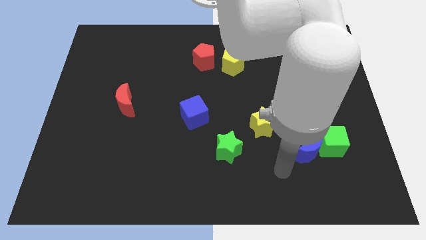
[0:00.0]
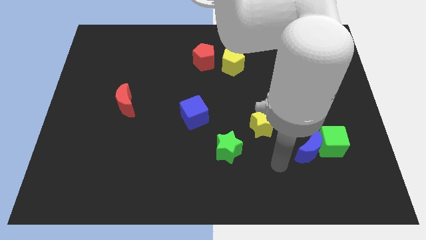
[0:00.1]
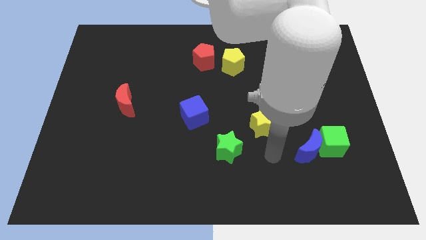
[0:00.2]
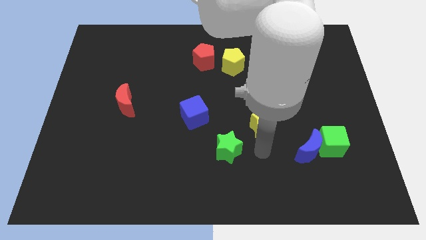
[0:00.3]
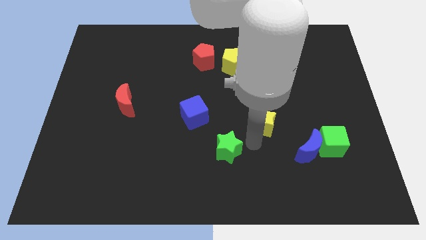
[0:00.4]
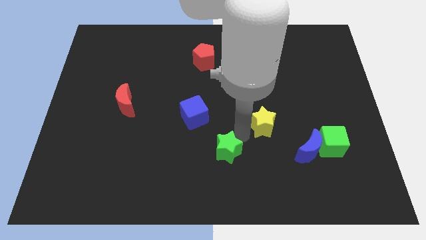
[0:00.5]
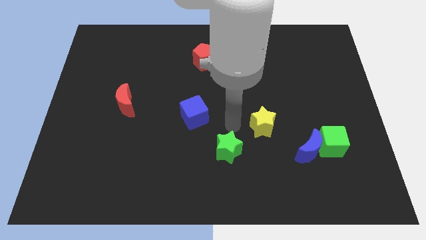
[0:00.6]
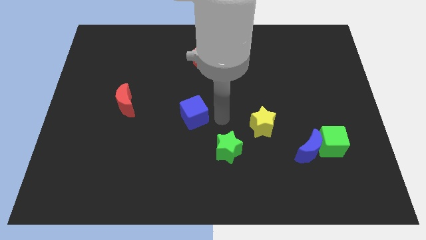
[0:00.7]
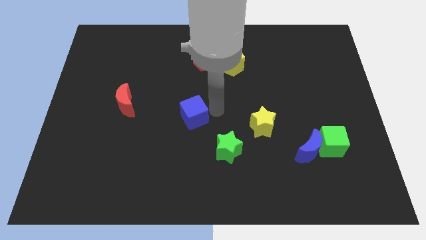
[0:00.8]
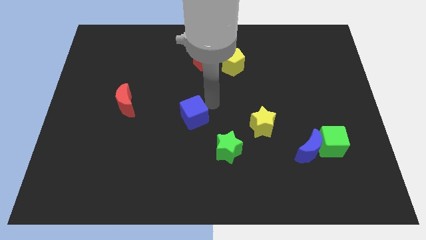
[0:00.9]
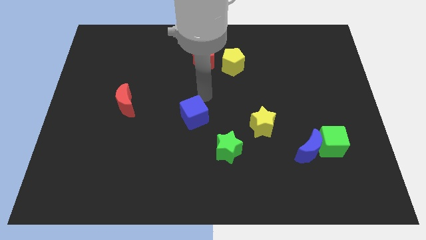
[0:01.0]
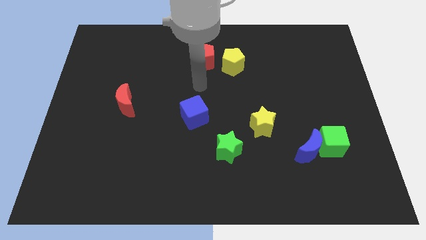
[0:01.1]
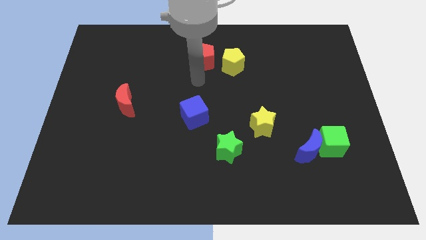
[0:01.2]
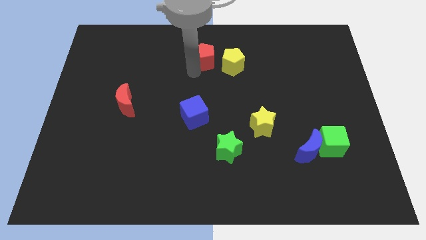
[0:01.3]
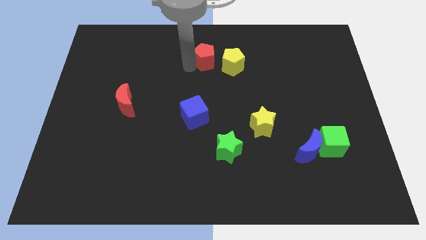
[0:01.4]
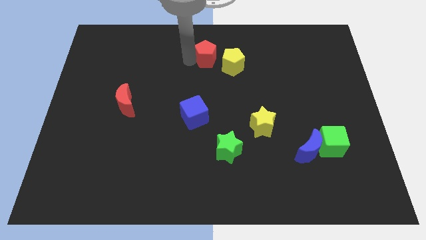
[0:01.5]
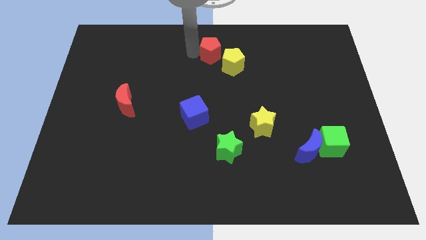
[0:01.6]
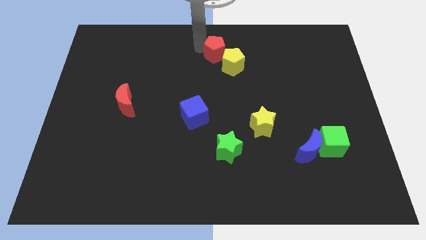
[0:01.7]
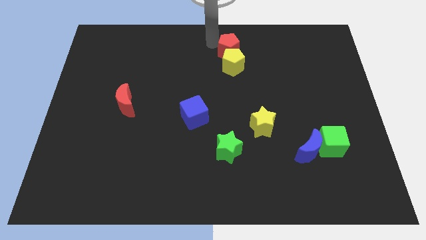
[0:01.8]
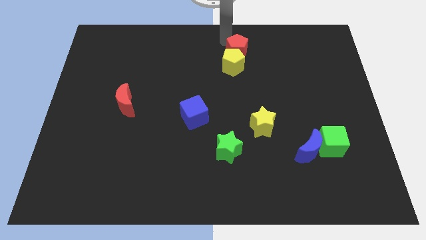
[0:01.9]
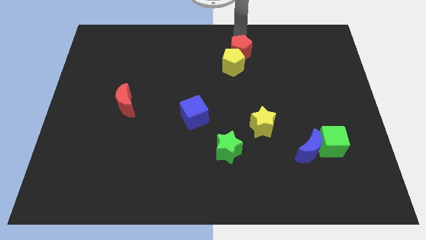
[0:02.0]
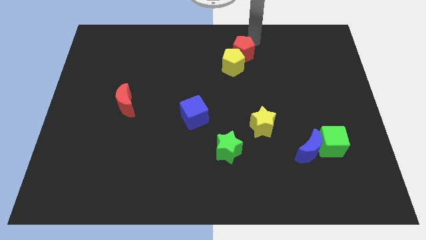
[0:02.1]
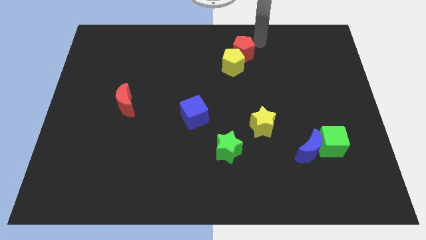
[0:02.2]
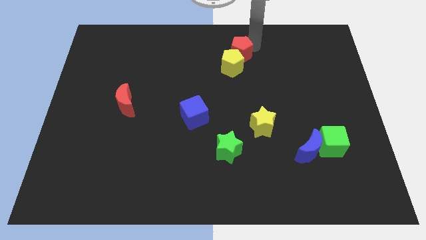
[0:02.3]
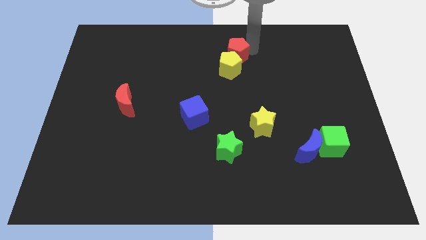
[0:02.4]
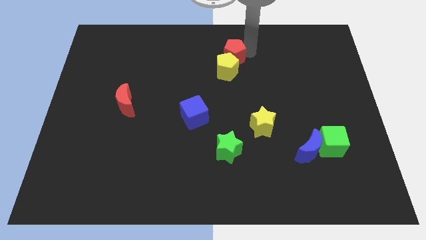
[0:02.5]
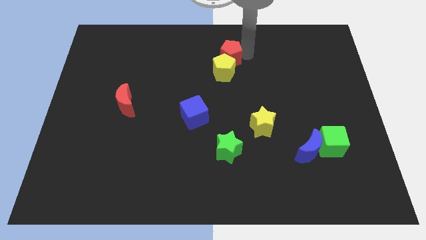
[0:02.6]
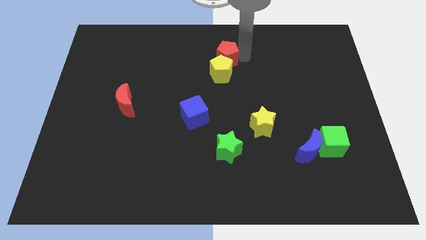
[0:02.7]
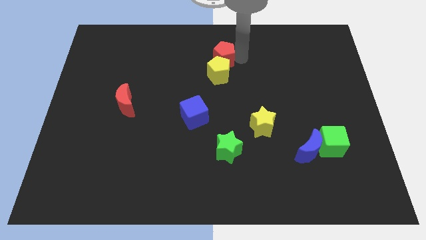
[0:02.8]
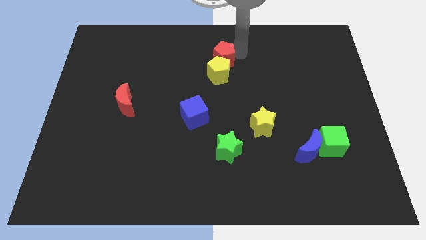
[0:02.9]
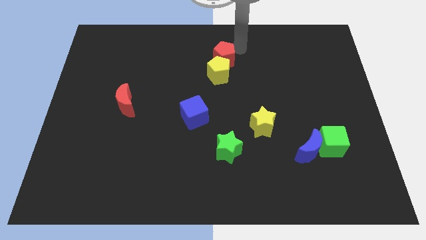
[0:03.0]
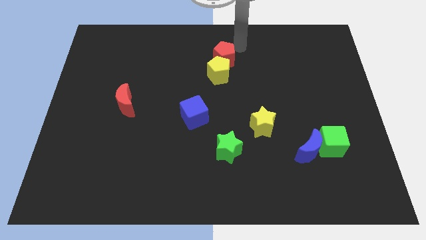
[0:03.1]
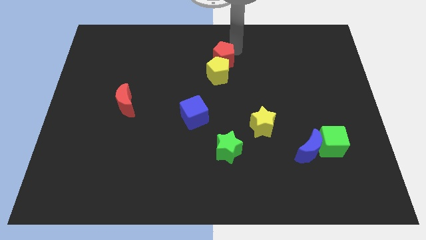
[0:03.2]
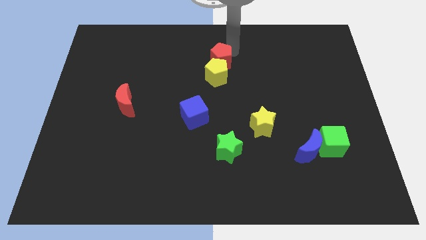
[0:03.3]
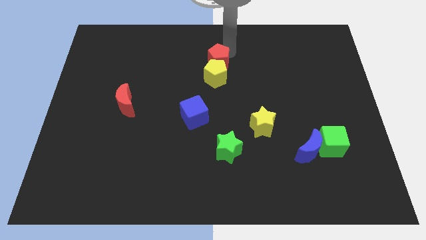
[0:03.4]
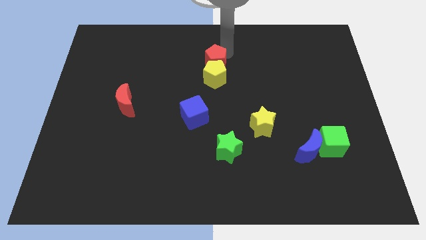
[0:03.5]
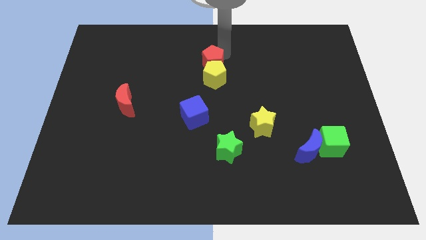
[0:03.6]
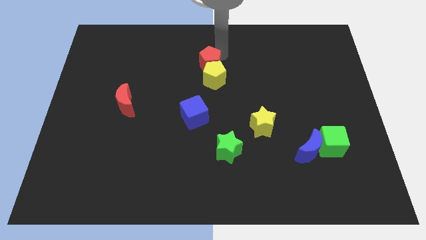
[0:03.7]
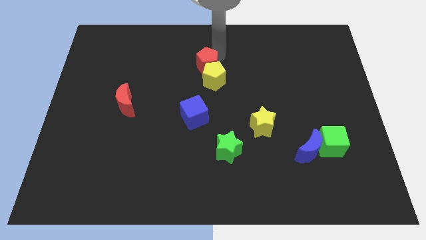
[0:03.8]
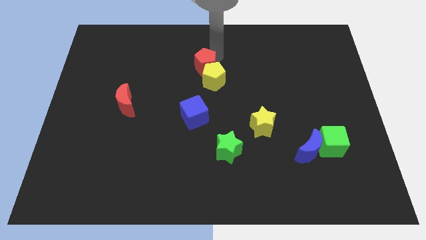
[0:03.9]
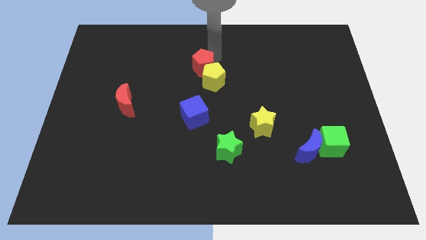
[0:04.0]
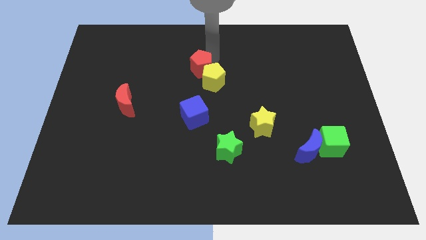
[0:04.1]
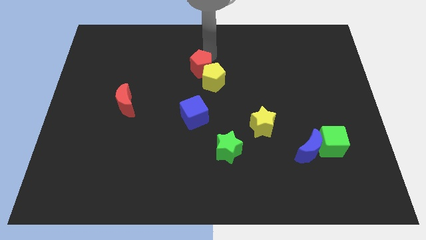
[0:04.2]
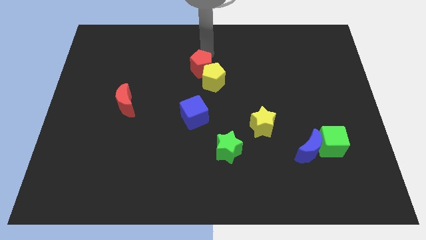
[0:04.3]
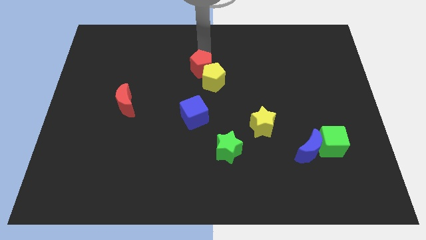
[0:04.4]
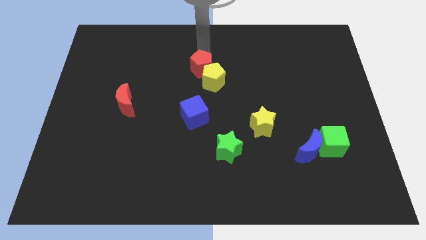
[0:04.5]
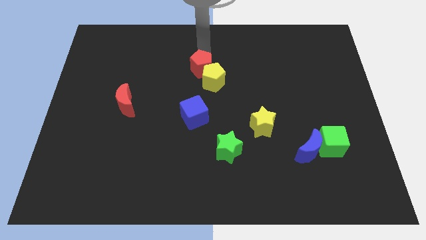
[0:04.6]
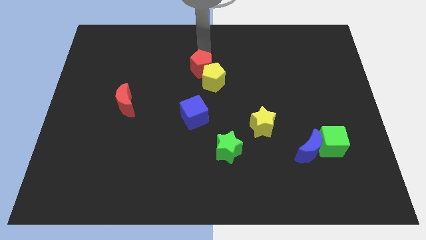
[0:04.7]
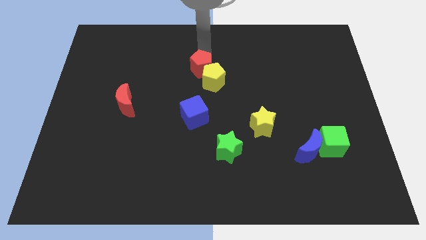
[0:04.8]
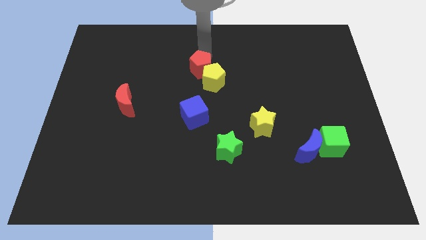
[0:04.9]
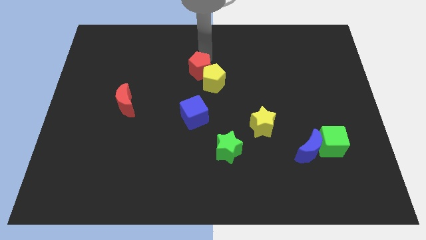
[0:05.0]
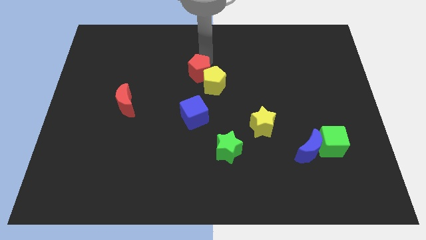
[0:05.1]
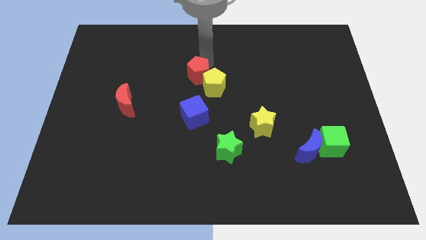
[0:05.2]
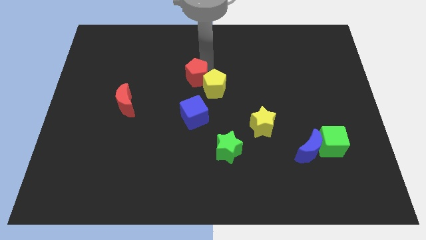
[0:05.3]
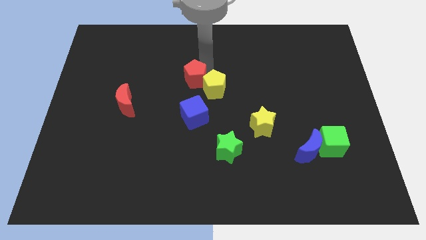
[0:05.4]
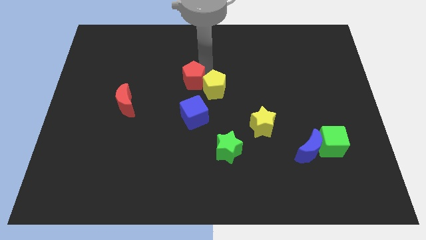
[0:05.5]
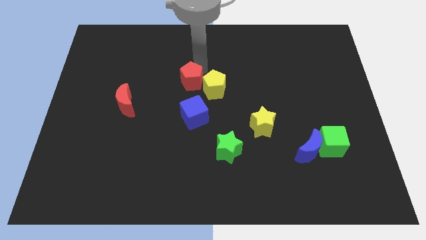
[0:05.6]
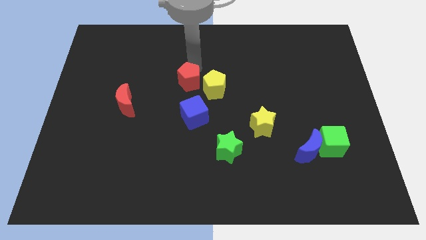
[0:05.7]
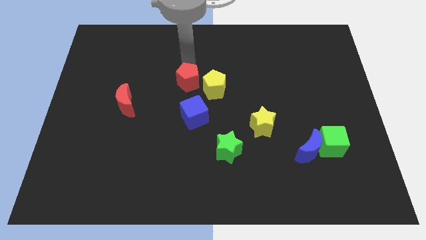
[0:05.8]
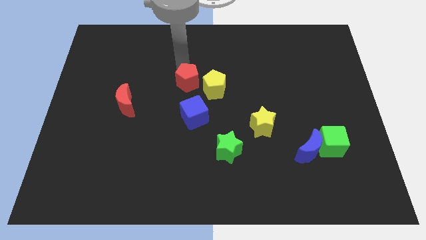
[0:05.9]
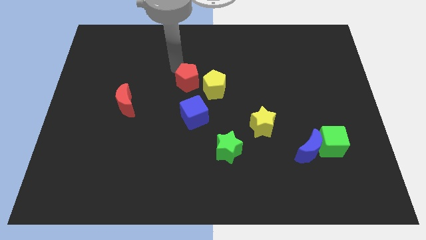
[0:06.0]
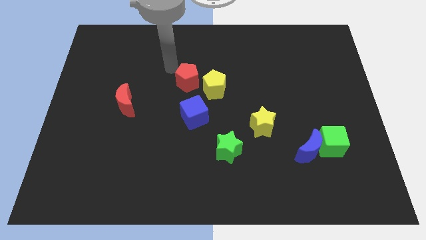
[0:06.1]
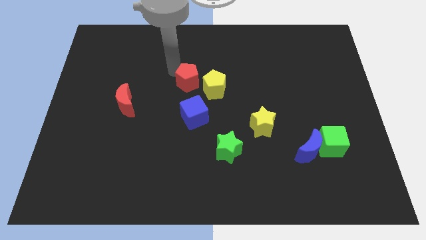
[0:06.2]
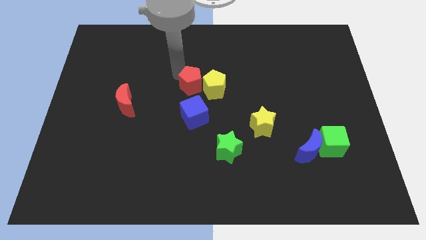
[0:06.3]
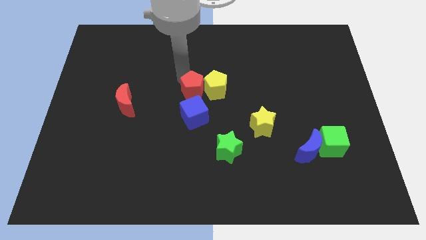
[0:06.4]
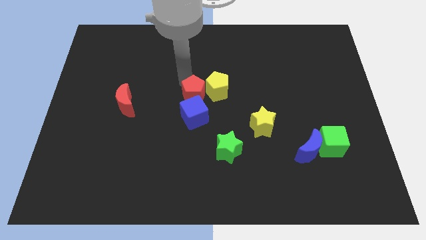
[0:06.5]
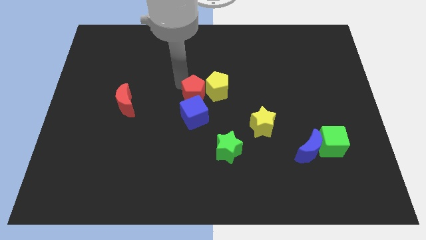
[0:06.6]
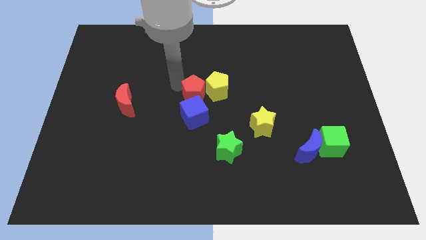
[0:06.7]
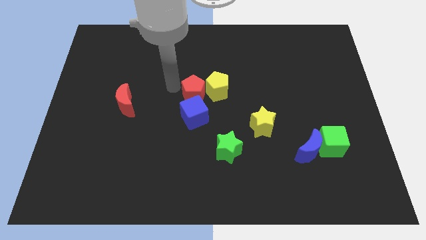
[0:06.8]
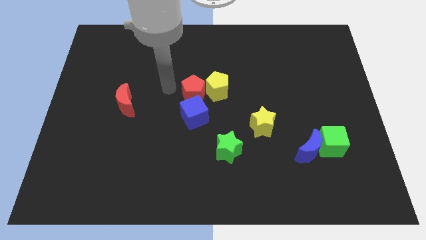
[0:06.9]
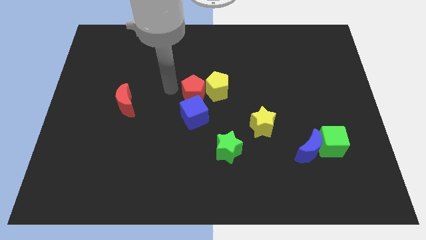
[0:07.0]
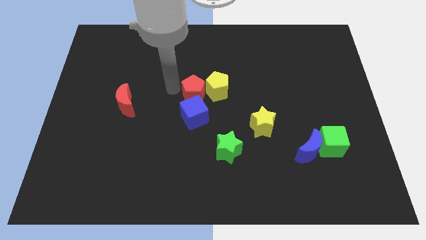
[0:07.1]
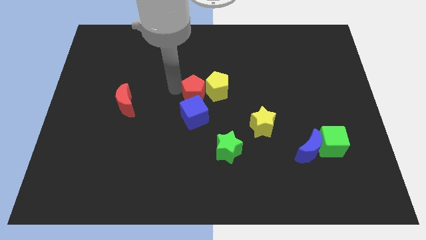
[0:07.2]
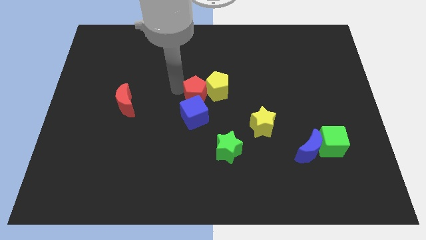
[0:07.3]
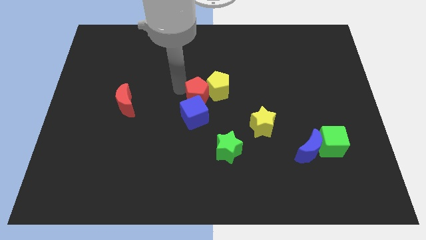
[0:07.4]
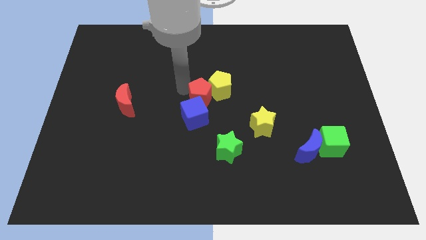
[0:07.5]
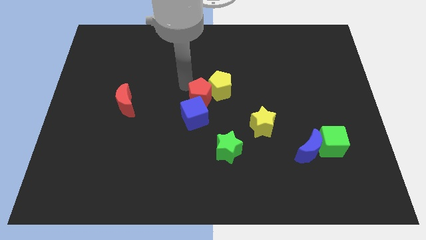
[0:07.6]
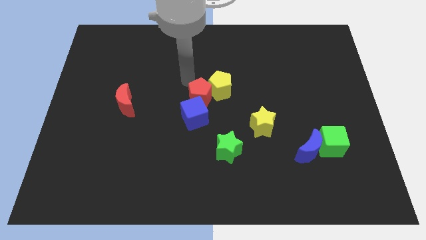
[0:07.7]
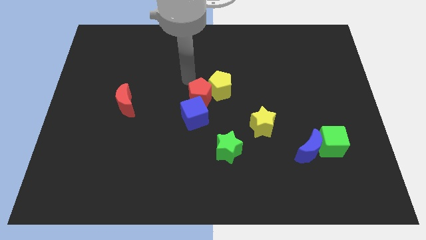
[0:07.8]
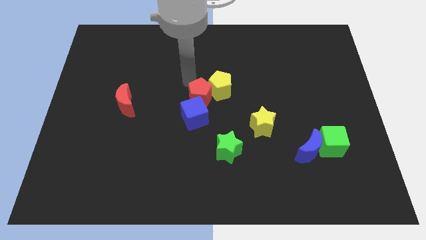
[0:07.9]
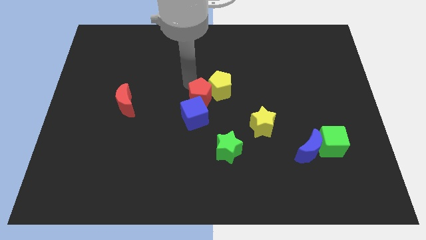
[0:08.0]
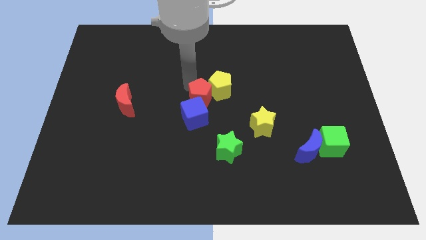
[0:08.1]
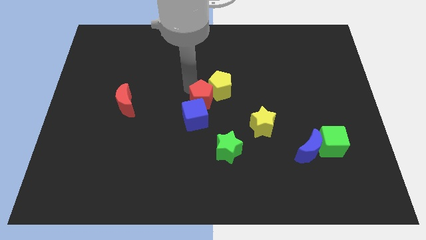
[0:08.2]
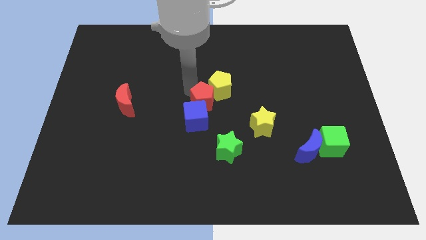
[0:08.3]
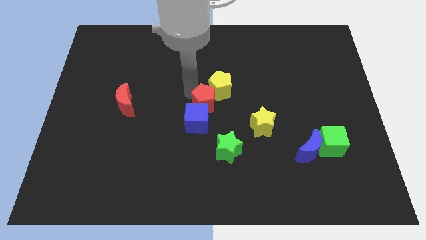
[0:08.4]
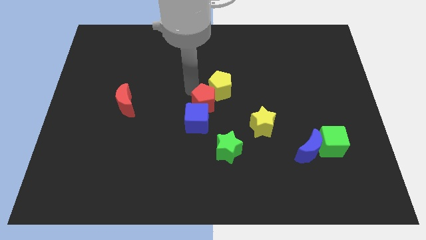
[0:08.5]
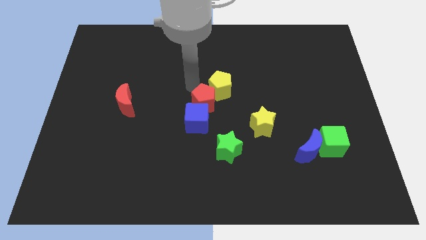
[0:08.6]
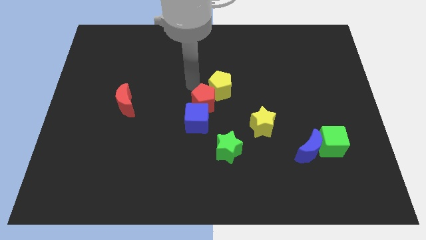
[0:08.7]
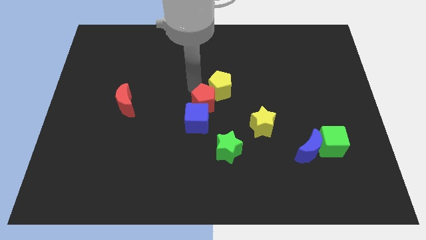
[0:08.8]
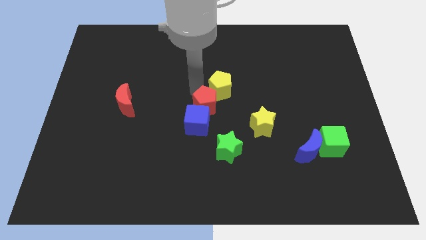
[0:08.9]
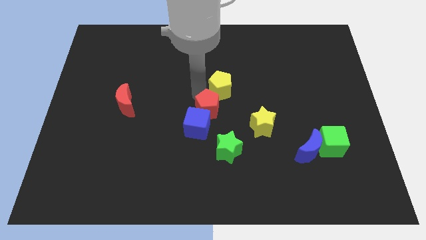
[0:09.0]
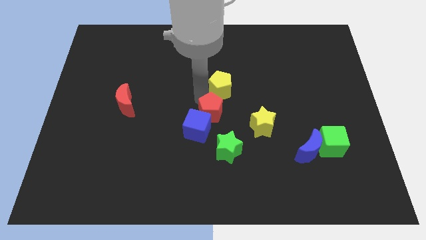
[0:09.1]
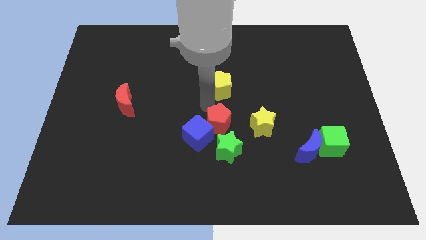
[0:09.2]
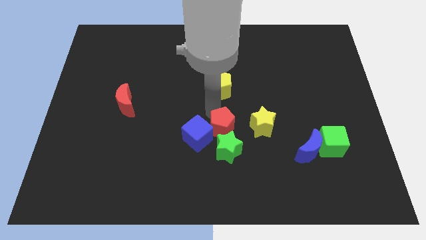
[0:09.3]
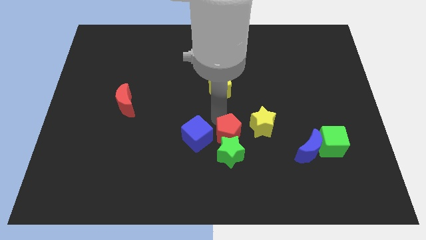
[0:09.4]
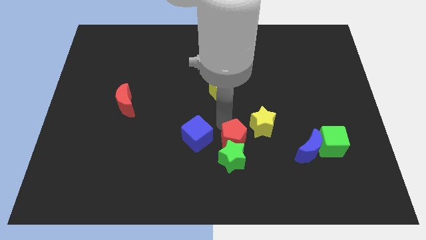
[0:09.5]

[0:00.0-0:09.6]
slide the red pentagon to the bottom right side of the blue cube
